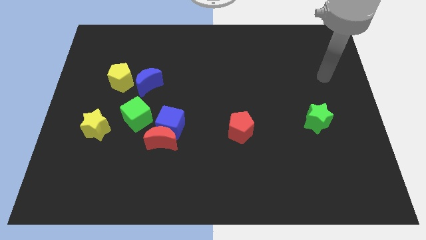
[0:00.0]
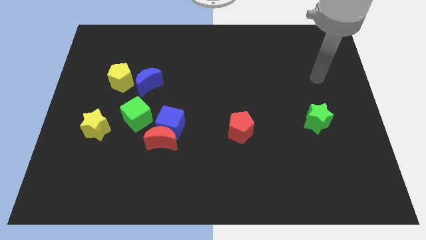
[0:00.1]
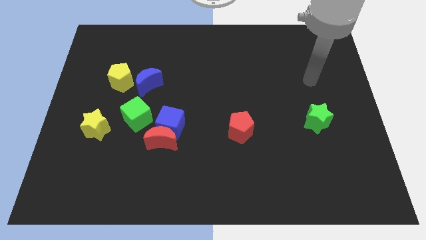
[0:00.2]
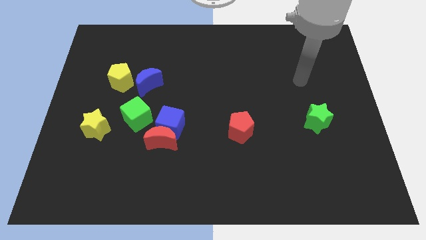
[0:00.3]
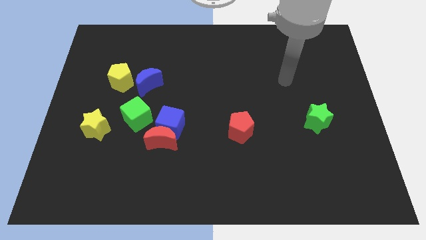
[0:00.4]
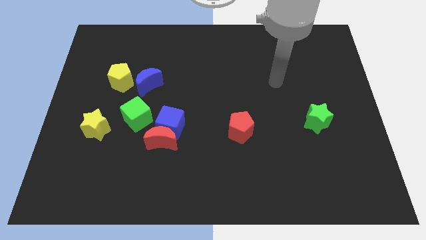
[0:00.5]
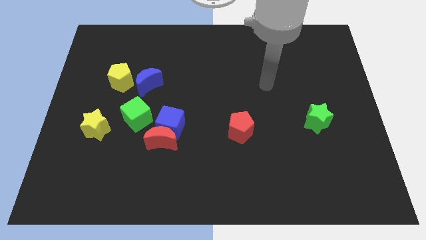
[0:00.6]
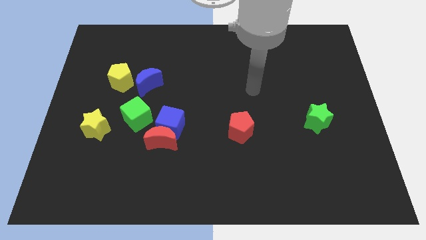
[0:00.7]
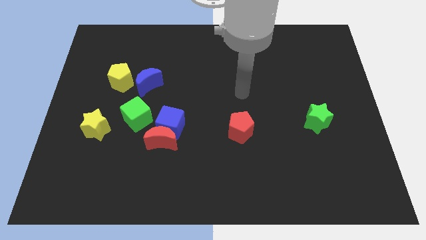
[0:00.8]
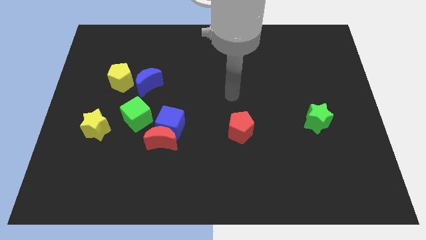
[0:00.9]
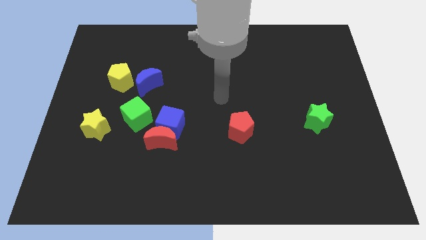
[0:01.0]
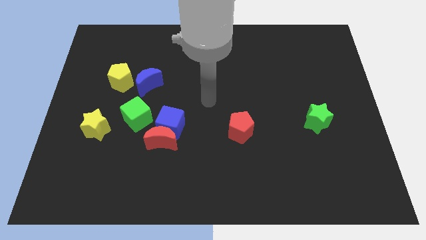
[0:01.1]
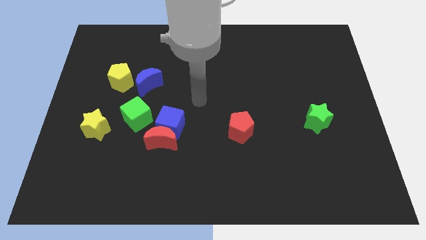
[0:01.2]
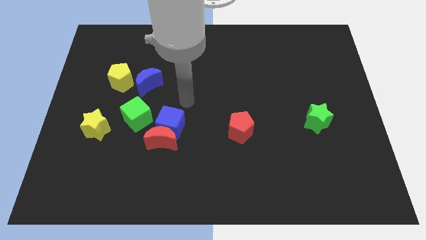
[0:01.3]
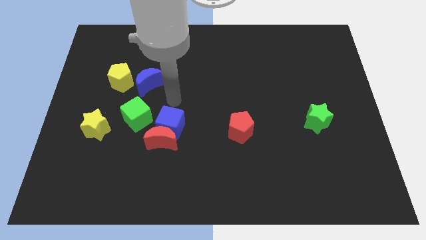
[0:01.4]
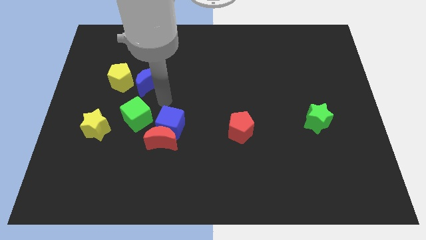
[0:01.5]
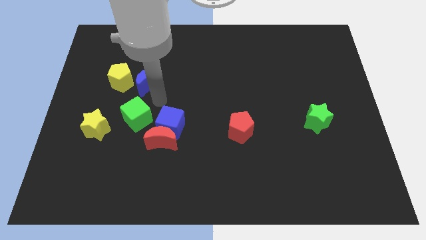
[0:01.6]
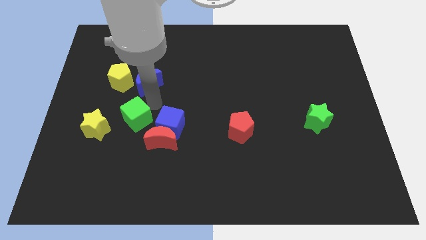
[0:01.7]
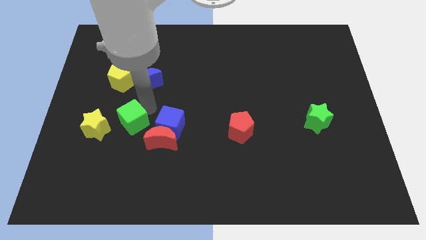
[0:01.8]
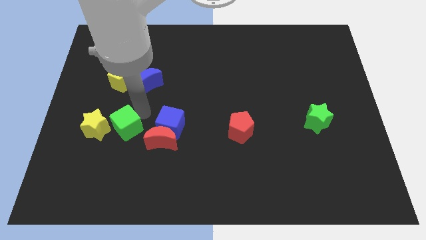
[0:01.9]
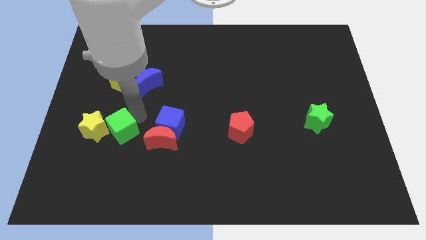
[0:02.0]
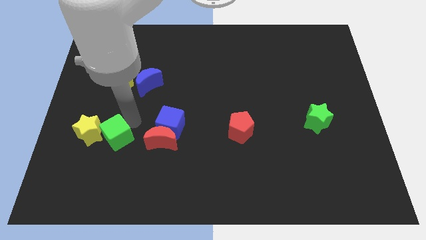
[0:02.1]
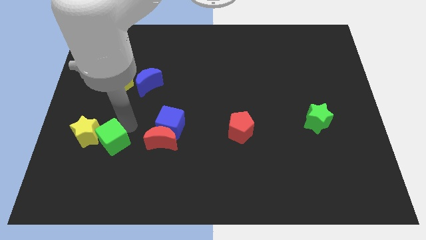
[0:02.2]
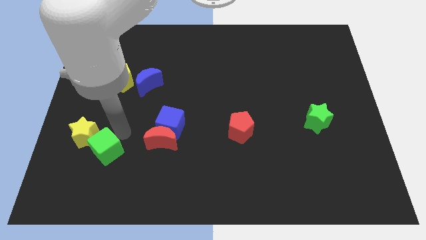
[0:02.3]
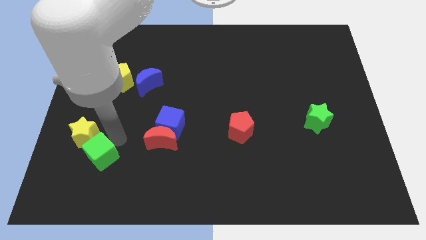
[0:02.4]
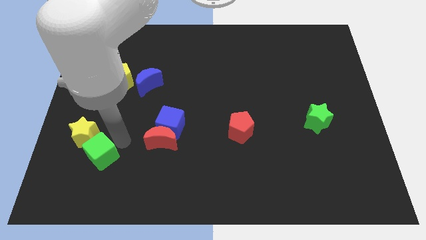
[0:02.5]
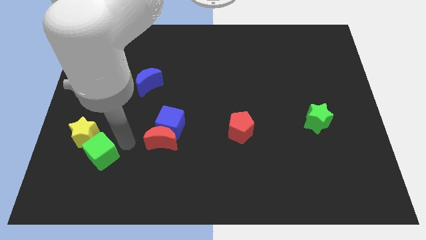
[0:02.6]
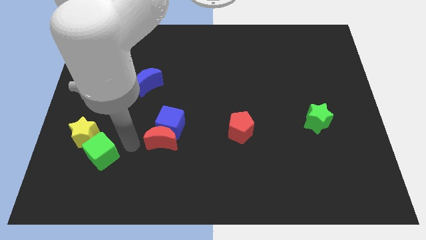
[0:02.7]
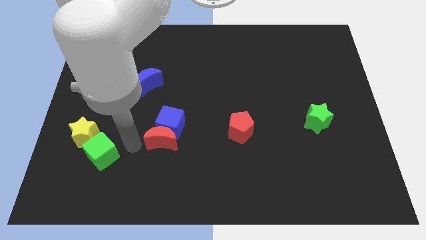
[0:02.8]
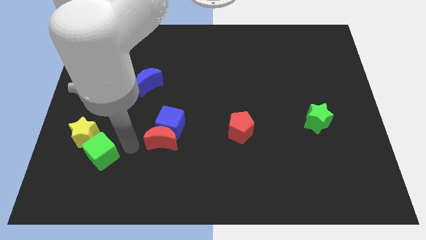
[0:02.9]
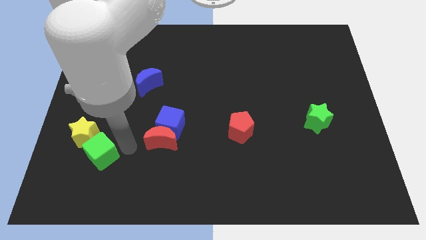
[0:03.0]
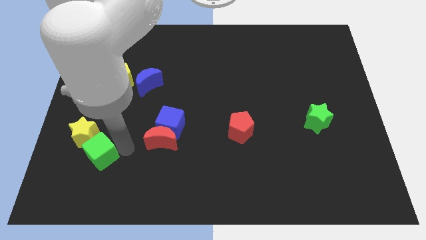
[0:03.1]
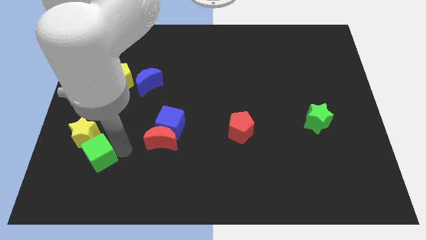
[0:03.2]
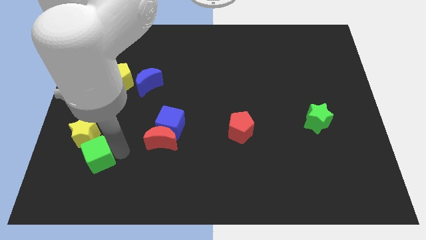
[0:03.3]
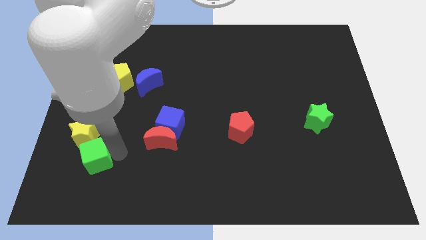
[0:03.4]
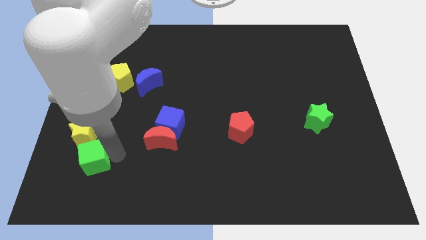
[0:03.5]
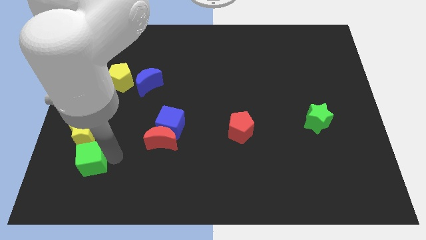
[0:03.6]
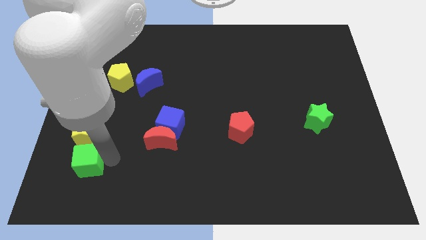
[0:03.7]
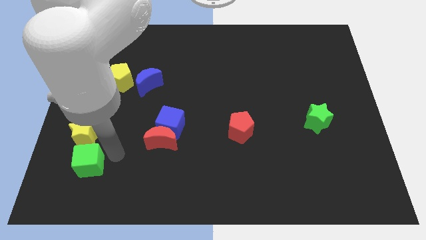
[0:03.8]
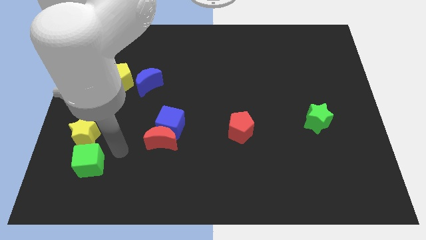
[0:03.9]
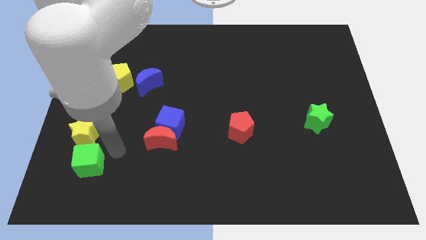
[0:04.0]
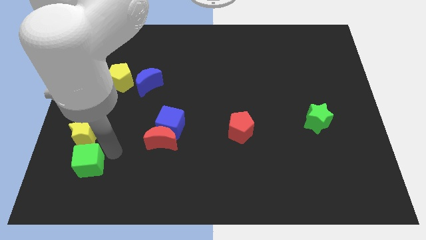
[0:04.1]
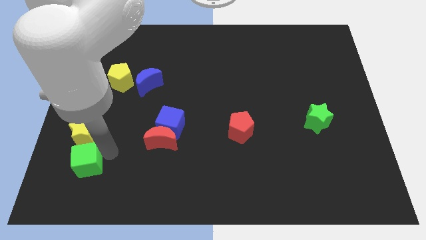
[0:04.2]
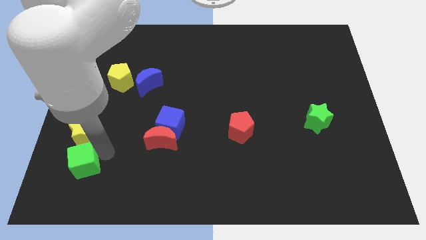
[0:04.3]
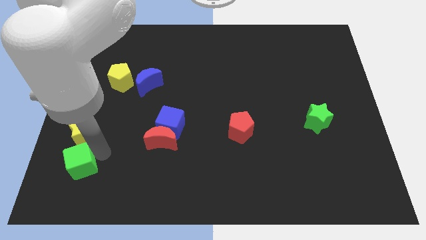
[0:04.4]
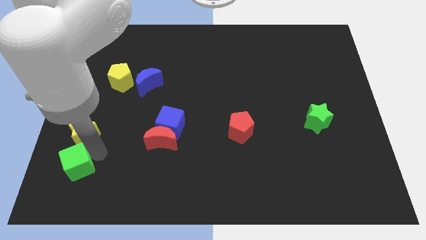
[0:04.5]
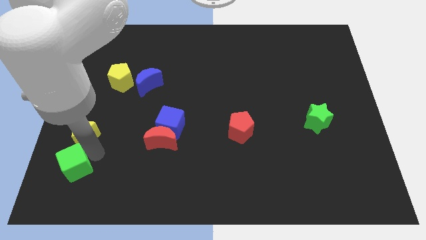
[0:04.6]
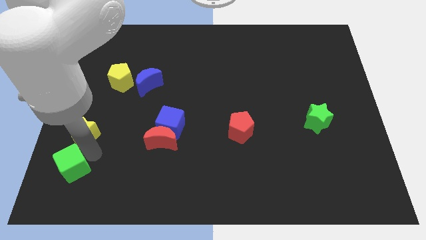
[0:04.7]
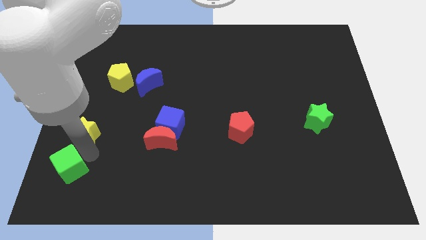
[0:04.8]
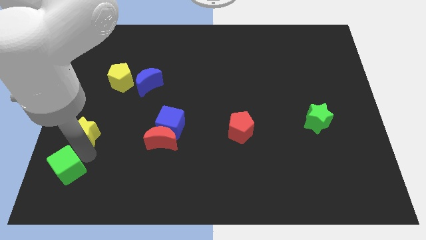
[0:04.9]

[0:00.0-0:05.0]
move the green cube to the bottom left corner

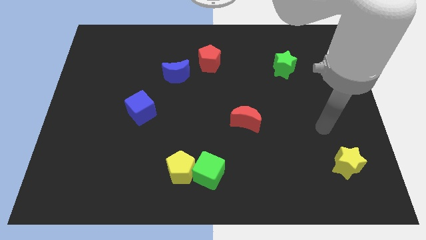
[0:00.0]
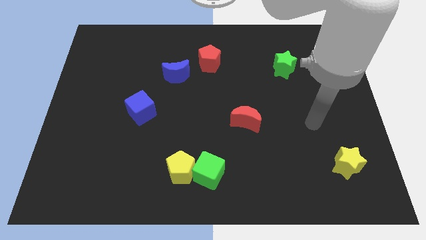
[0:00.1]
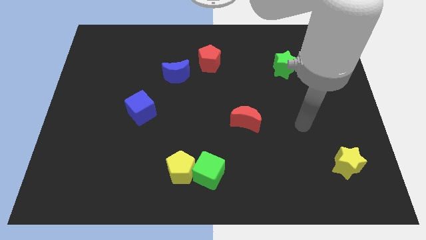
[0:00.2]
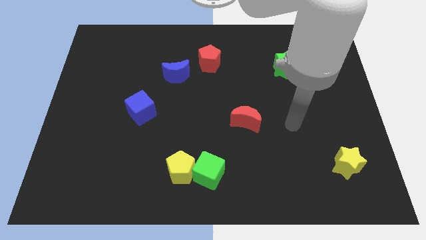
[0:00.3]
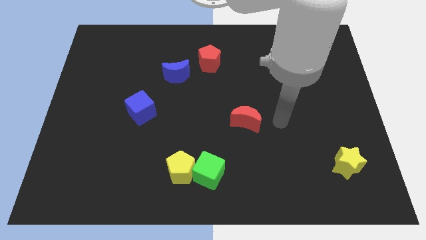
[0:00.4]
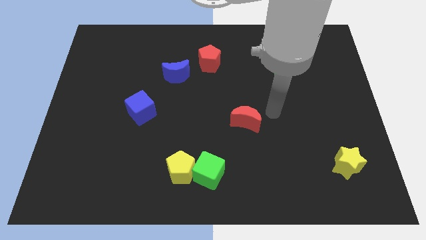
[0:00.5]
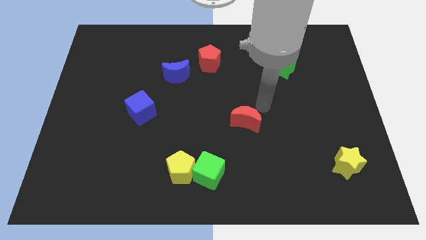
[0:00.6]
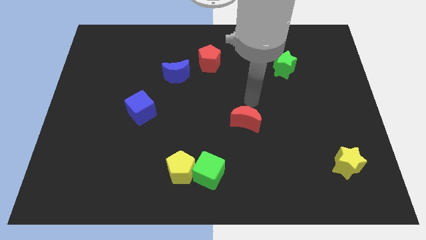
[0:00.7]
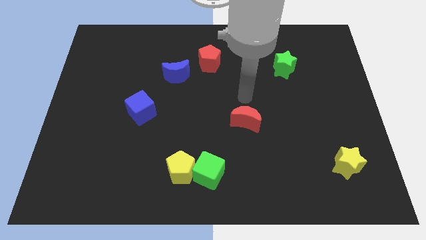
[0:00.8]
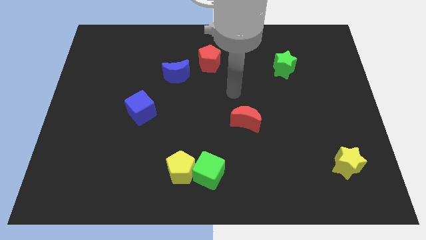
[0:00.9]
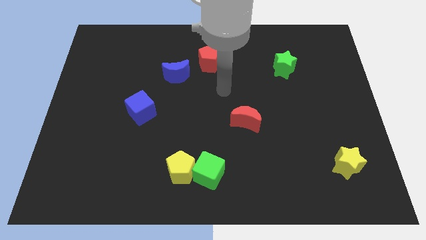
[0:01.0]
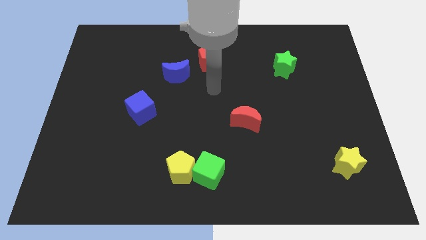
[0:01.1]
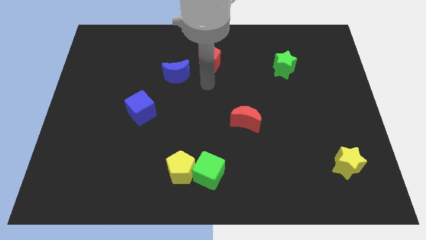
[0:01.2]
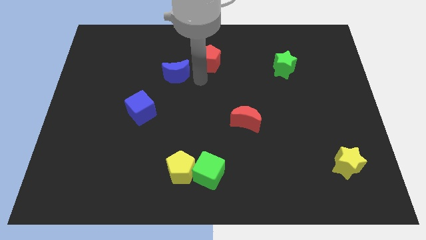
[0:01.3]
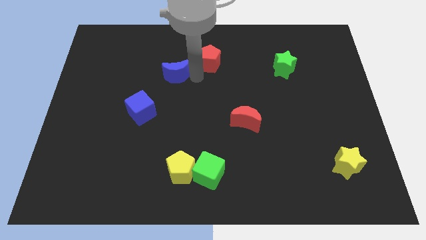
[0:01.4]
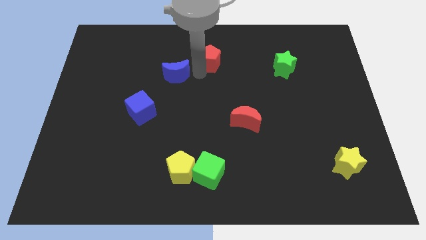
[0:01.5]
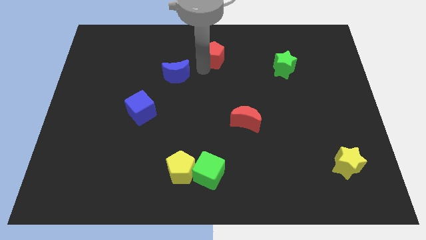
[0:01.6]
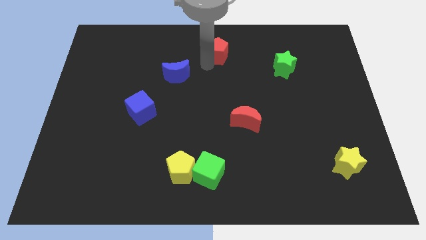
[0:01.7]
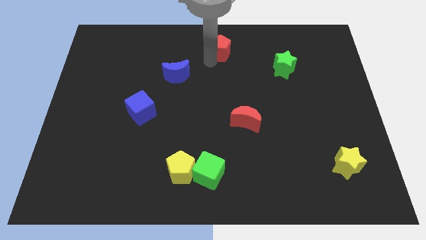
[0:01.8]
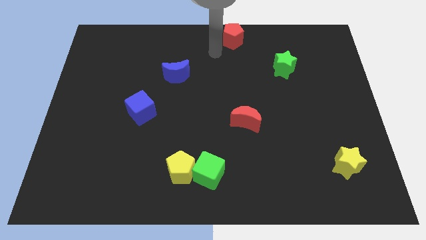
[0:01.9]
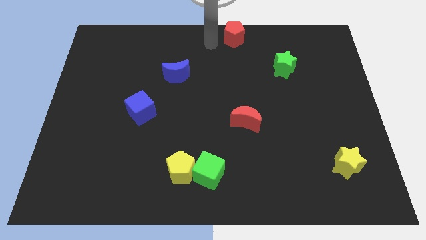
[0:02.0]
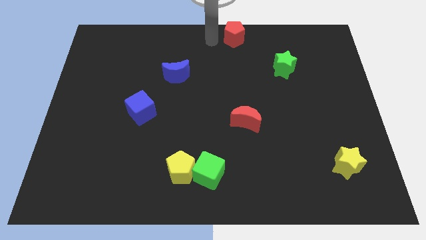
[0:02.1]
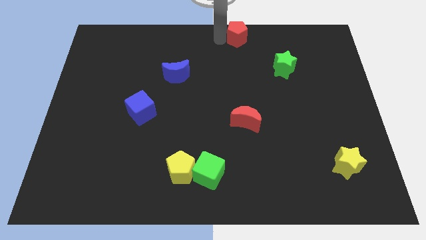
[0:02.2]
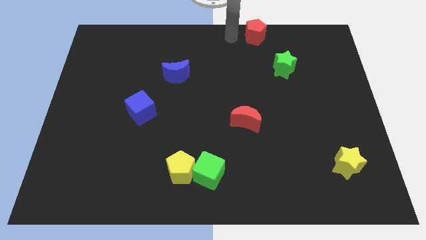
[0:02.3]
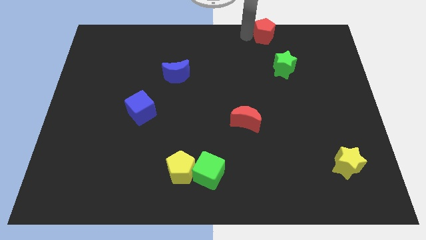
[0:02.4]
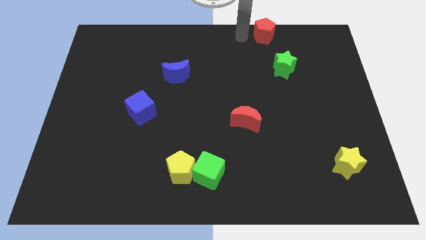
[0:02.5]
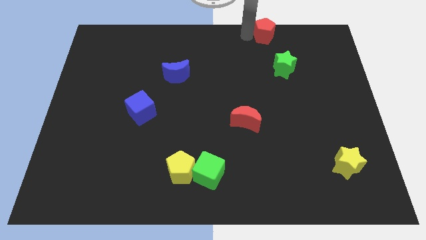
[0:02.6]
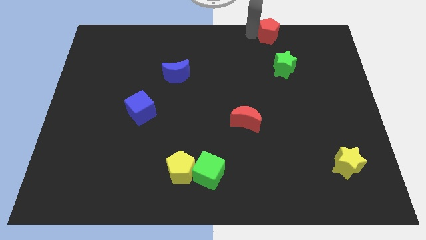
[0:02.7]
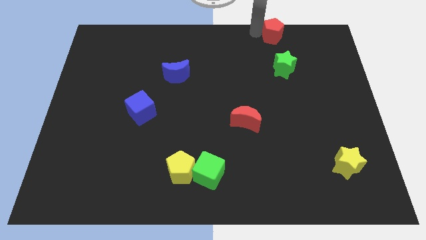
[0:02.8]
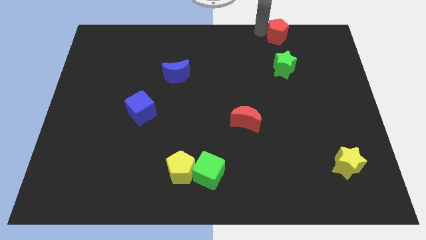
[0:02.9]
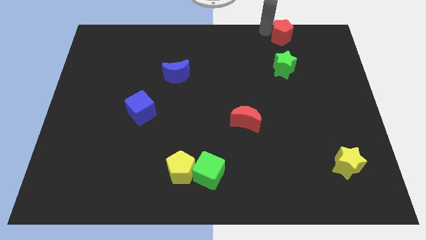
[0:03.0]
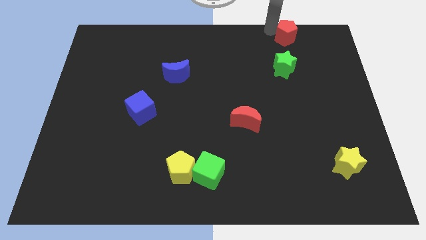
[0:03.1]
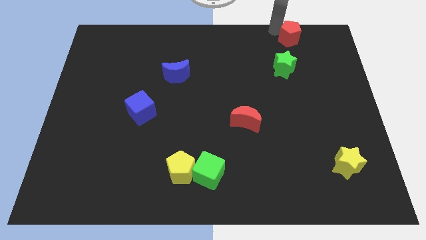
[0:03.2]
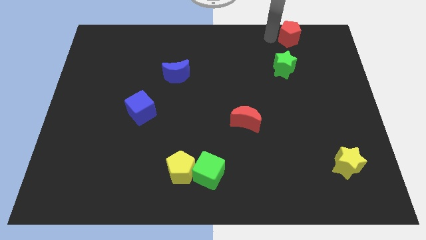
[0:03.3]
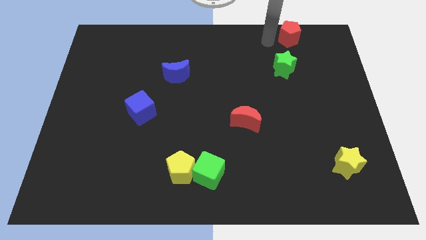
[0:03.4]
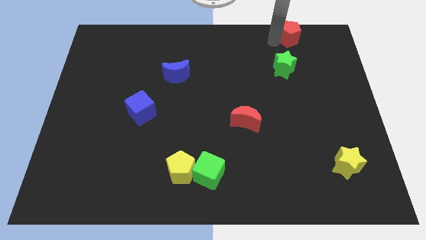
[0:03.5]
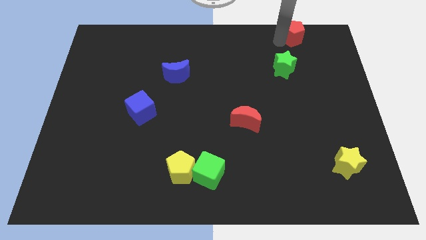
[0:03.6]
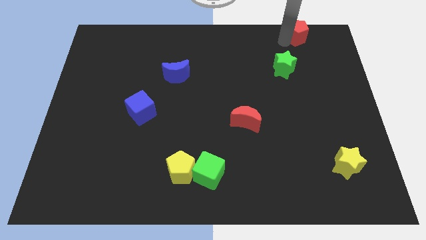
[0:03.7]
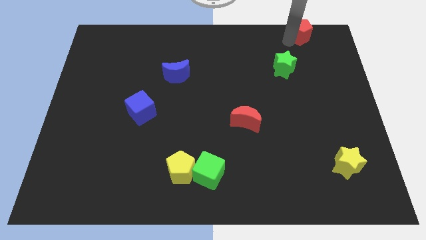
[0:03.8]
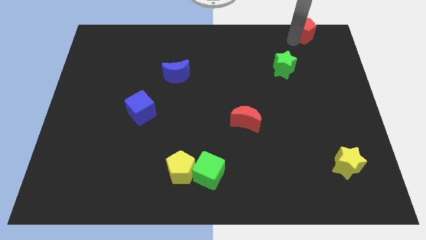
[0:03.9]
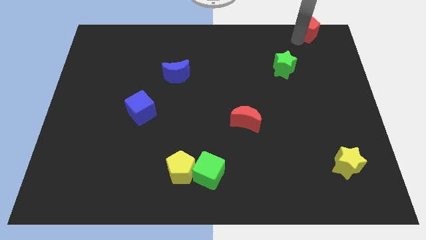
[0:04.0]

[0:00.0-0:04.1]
push the red pentagon to the top right of the board
